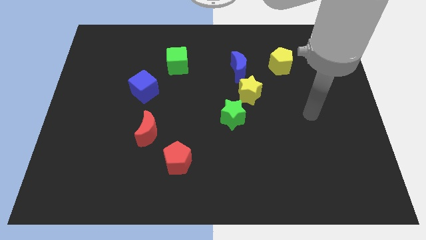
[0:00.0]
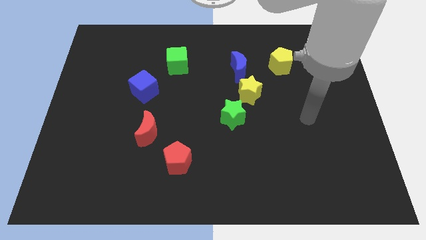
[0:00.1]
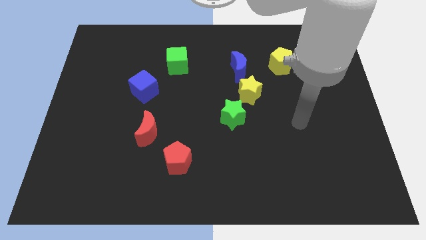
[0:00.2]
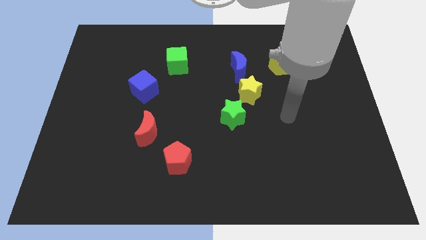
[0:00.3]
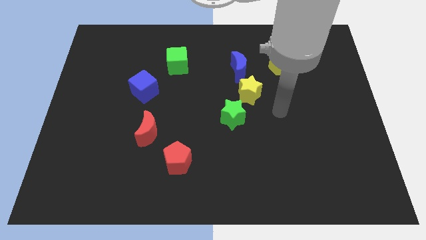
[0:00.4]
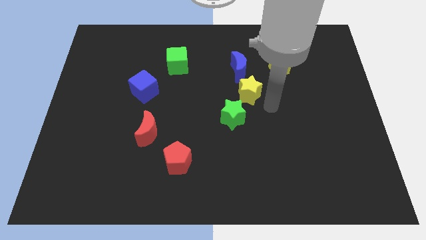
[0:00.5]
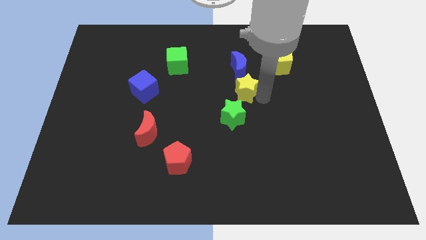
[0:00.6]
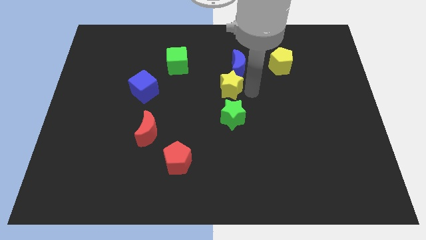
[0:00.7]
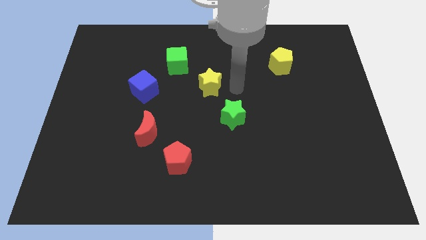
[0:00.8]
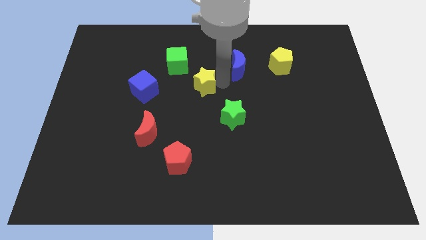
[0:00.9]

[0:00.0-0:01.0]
pull the blue moon apart from the yellow star

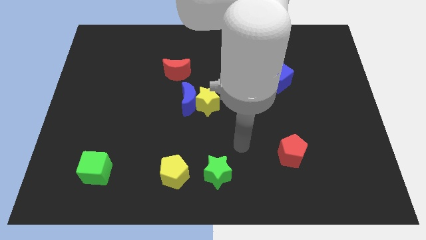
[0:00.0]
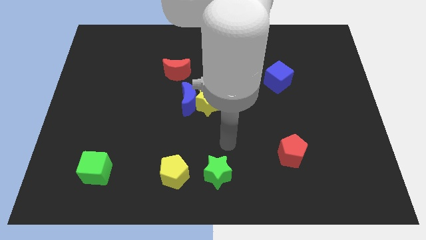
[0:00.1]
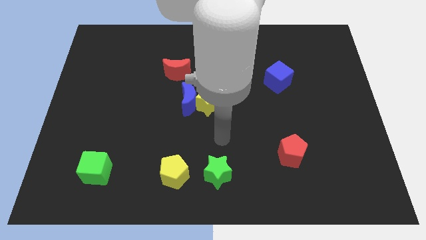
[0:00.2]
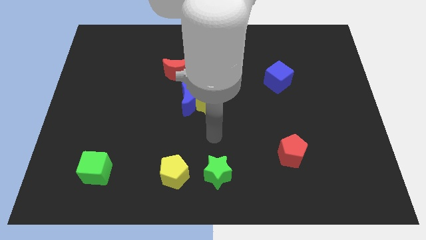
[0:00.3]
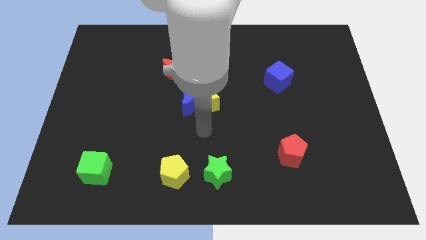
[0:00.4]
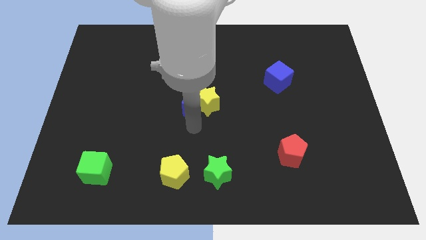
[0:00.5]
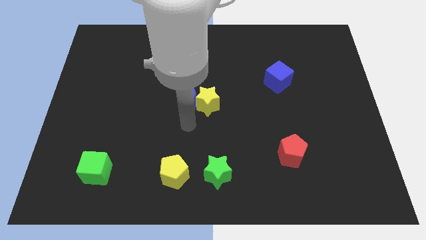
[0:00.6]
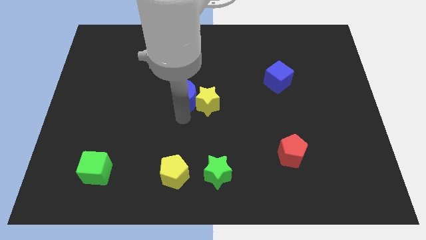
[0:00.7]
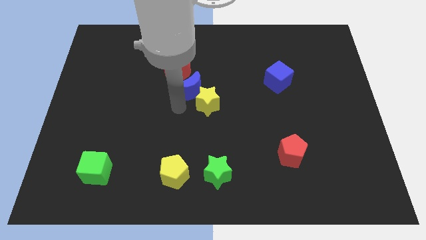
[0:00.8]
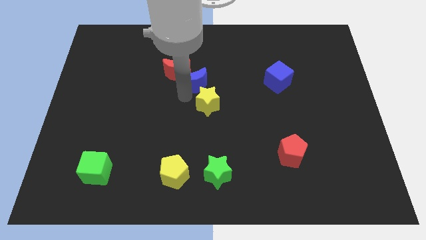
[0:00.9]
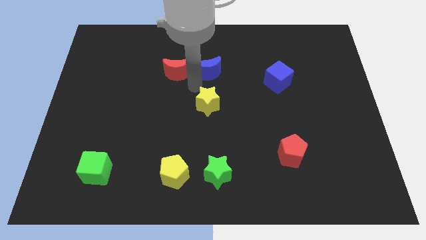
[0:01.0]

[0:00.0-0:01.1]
pull the yellow star apart from the blue moon

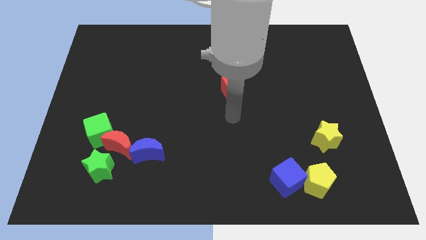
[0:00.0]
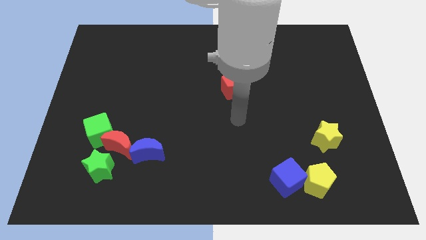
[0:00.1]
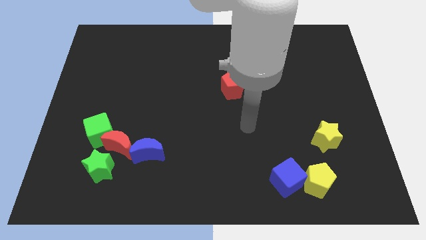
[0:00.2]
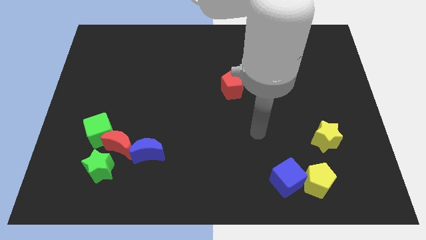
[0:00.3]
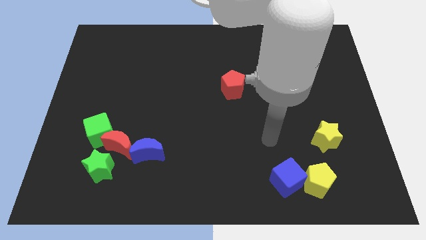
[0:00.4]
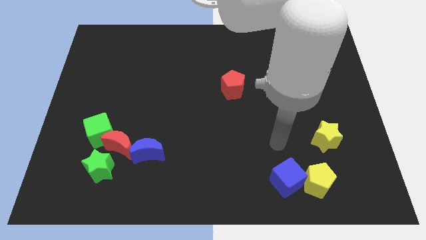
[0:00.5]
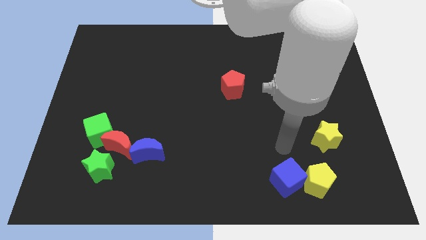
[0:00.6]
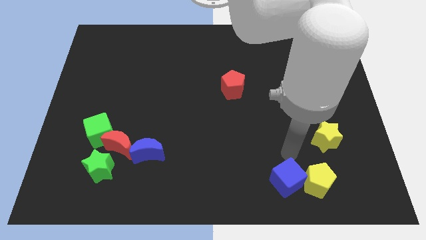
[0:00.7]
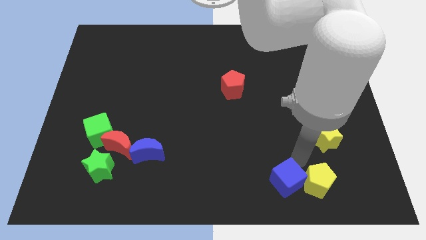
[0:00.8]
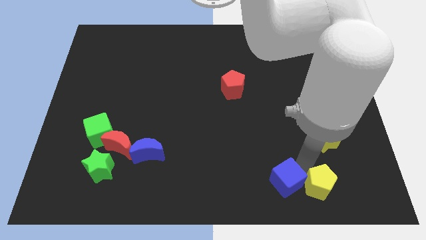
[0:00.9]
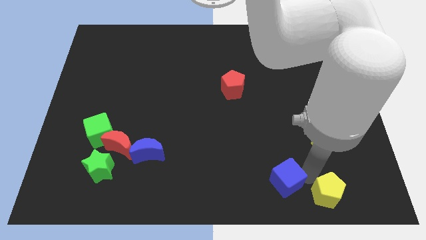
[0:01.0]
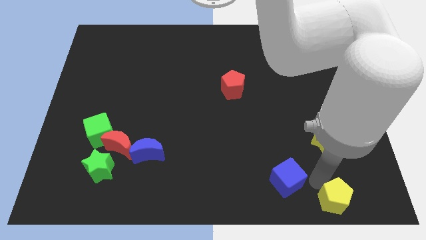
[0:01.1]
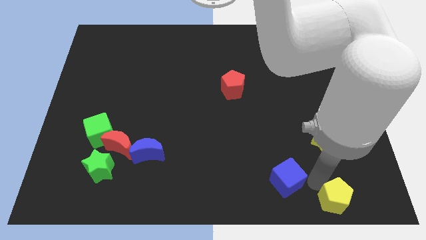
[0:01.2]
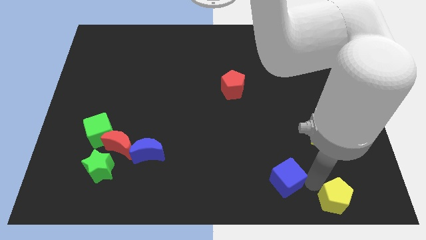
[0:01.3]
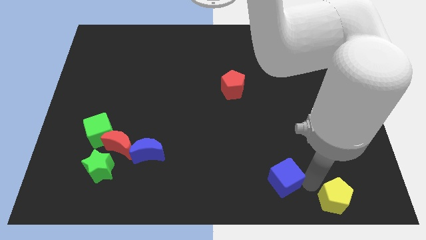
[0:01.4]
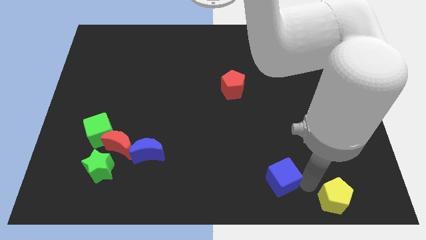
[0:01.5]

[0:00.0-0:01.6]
move the blue cube away from the yellow pentagon

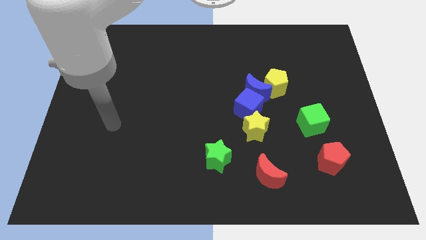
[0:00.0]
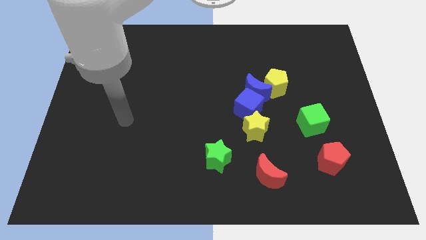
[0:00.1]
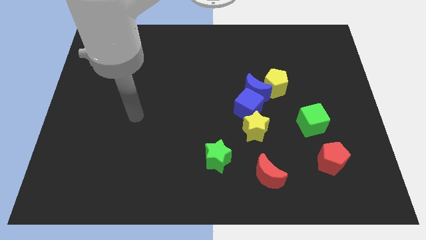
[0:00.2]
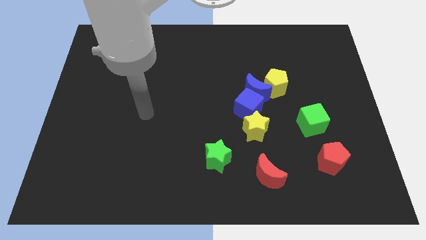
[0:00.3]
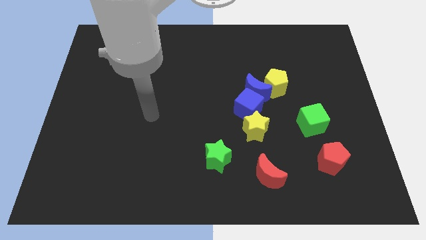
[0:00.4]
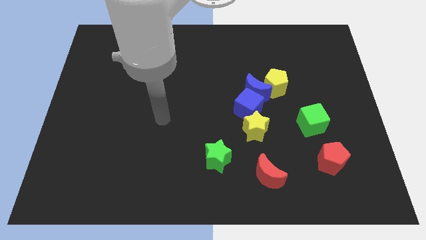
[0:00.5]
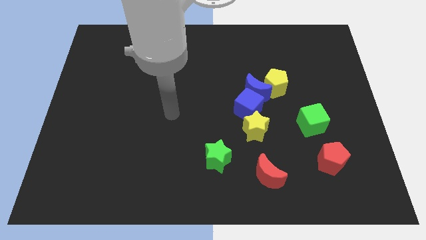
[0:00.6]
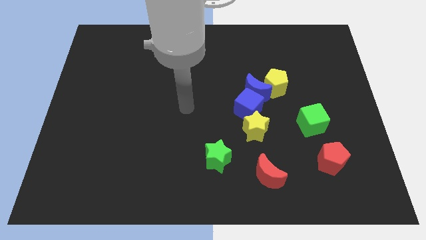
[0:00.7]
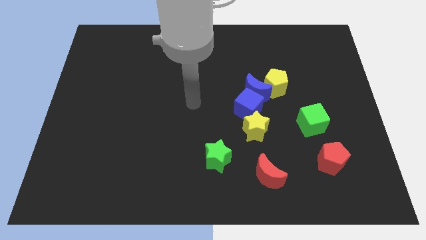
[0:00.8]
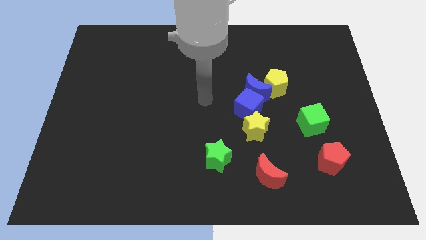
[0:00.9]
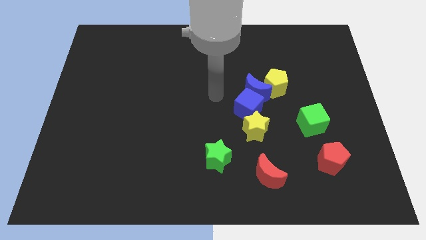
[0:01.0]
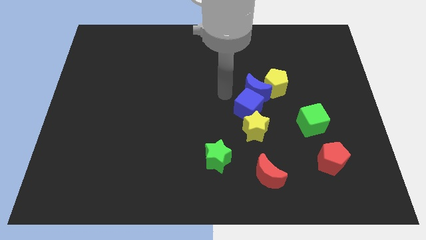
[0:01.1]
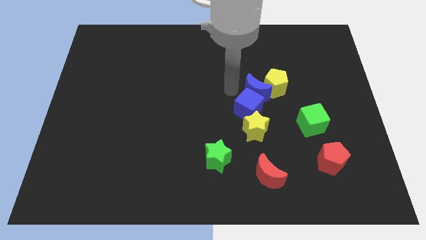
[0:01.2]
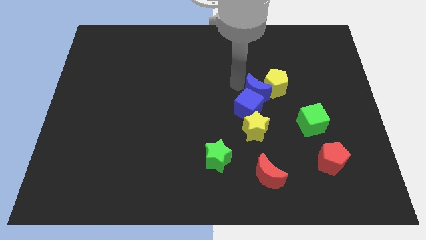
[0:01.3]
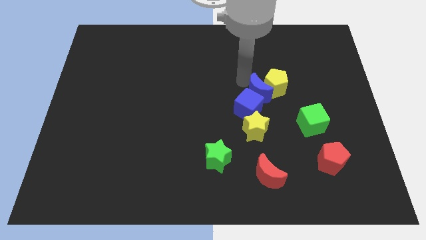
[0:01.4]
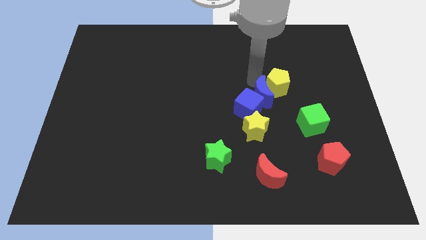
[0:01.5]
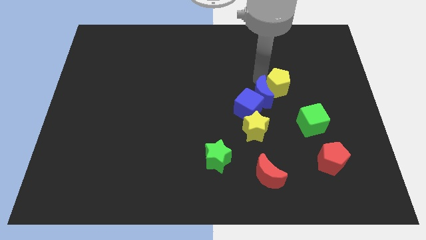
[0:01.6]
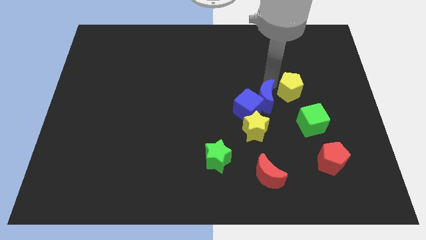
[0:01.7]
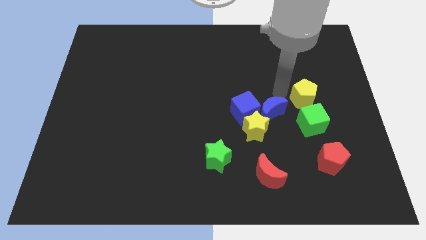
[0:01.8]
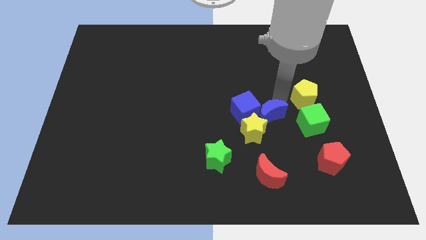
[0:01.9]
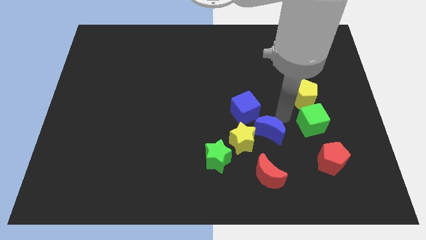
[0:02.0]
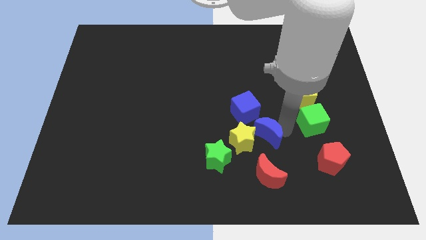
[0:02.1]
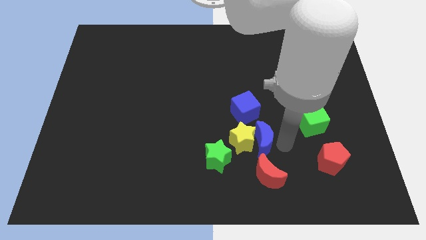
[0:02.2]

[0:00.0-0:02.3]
pull the blue moon apart from the blue cube and yellow pentagon

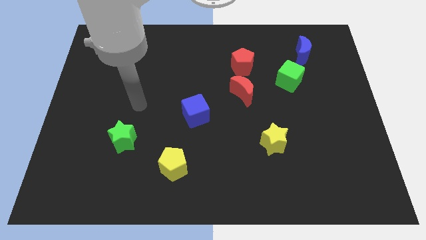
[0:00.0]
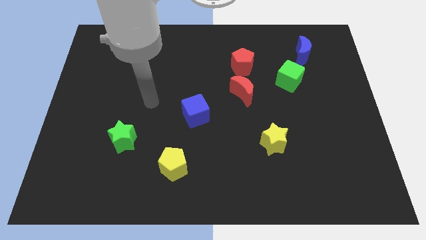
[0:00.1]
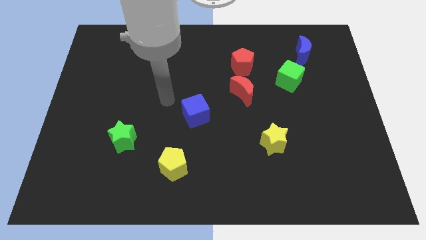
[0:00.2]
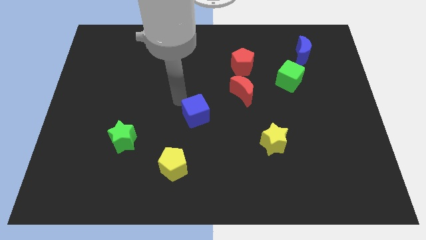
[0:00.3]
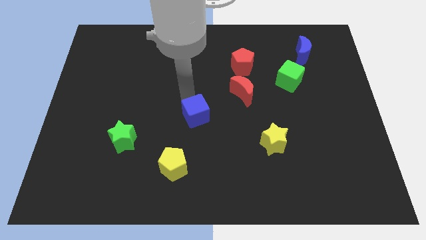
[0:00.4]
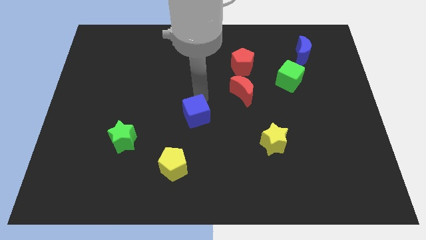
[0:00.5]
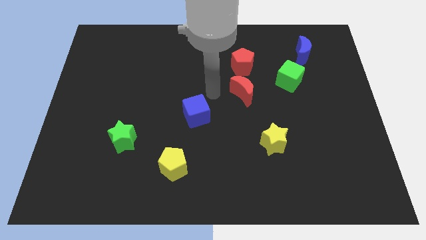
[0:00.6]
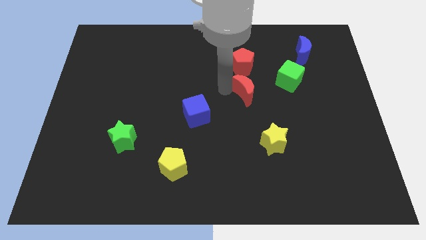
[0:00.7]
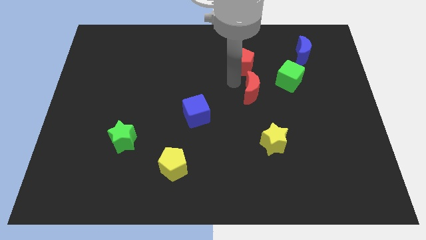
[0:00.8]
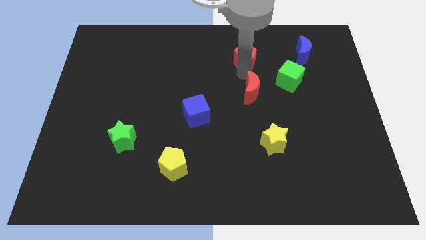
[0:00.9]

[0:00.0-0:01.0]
separate the red moon from the red pentagon

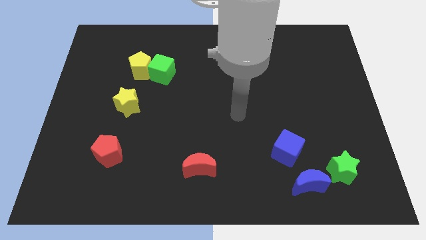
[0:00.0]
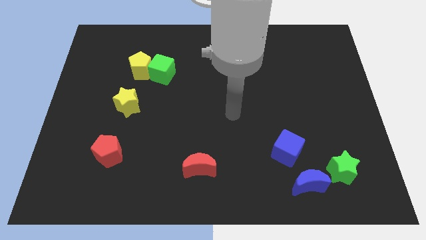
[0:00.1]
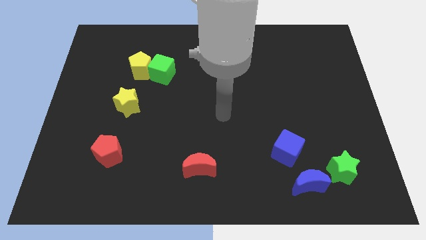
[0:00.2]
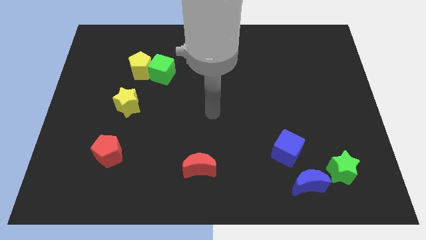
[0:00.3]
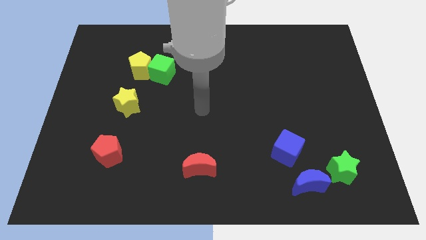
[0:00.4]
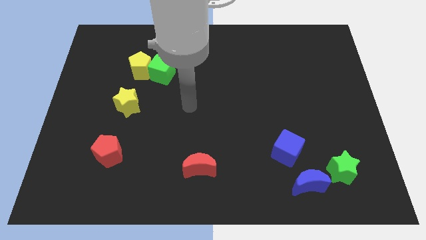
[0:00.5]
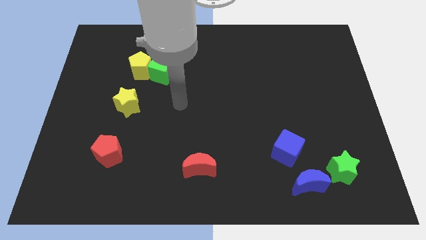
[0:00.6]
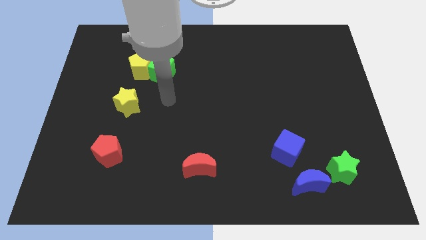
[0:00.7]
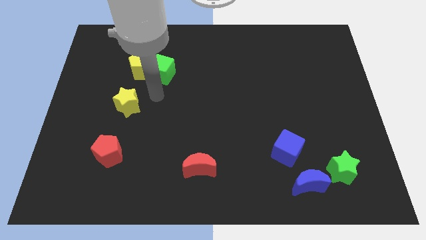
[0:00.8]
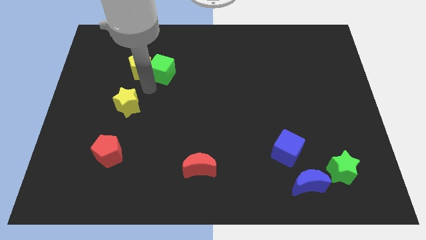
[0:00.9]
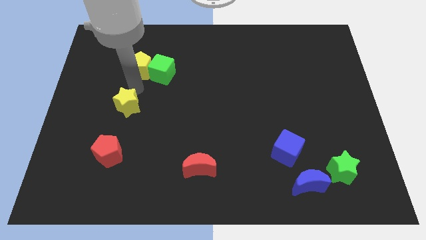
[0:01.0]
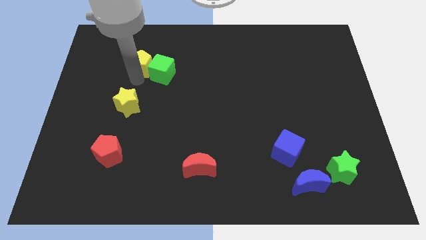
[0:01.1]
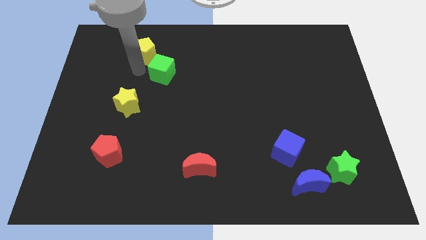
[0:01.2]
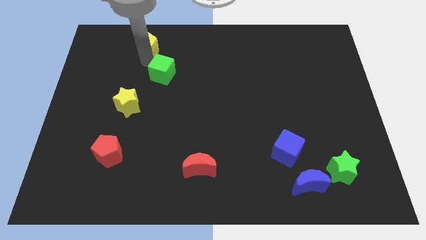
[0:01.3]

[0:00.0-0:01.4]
pull the green cube apart from the yellow pentagon

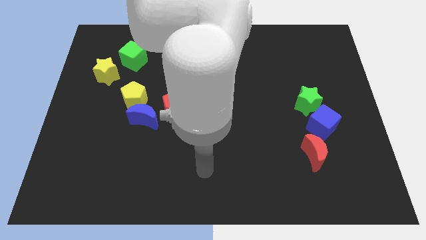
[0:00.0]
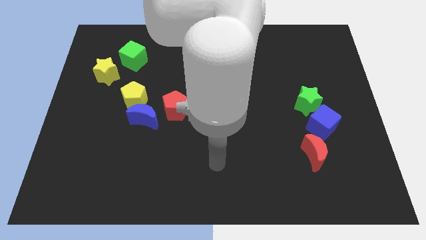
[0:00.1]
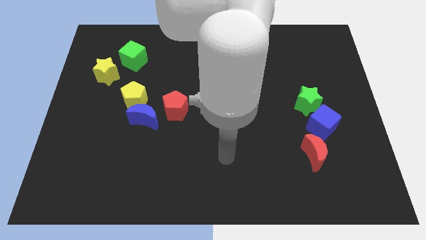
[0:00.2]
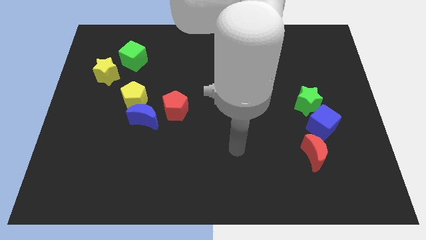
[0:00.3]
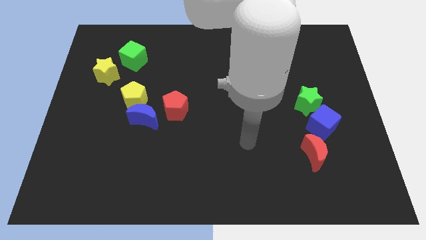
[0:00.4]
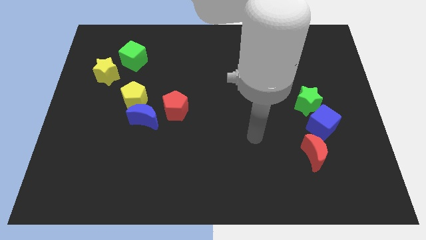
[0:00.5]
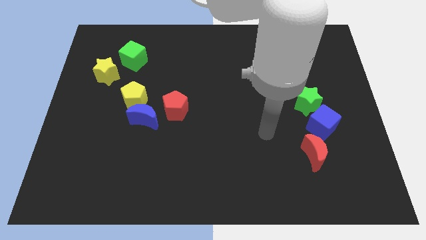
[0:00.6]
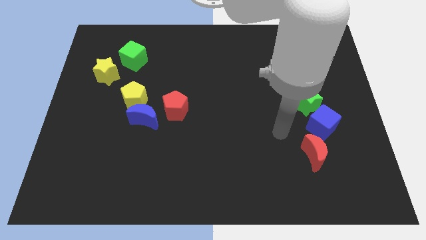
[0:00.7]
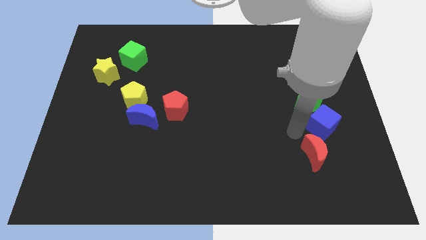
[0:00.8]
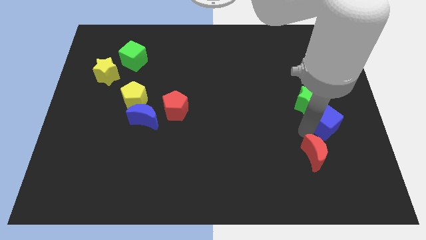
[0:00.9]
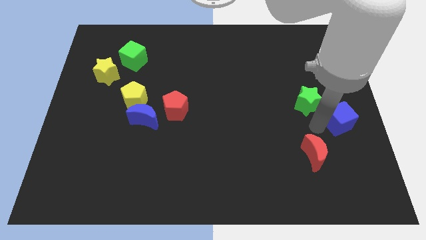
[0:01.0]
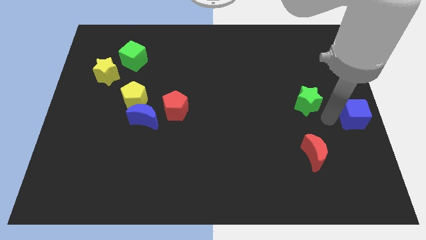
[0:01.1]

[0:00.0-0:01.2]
separate the green star from the blue cube
